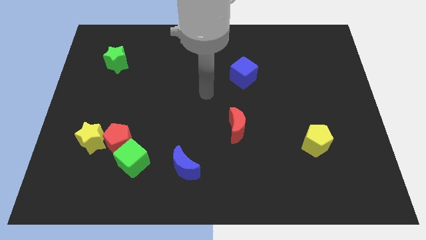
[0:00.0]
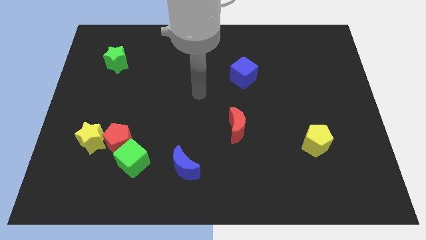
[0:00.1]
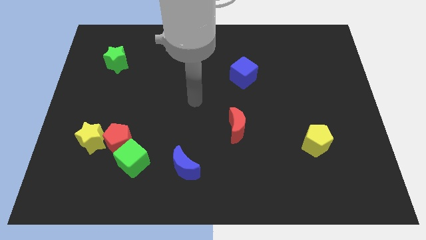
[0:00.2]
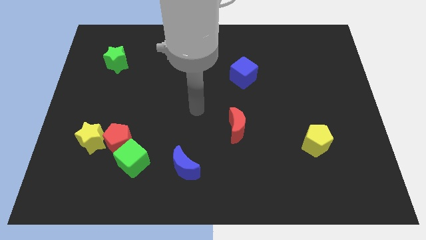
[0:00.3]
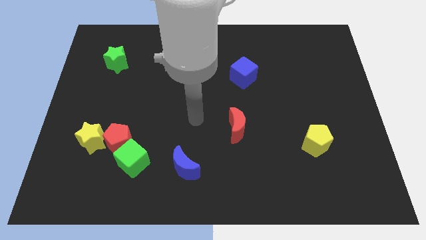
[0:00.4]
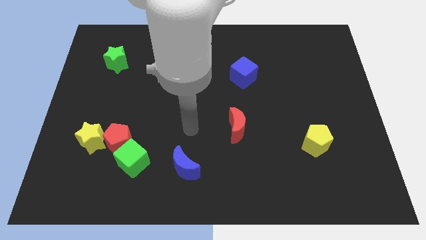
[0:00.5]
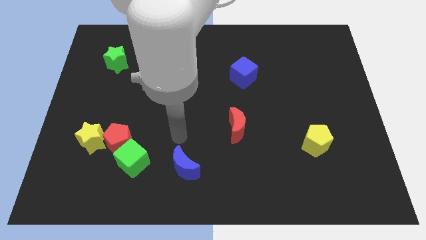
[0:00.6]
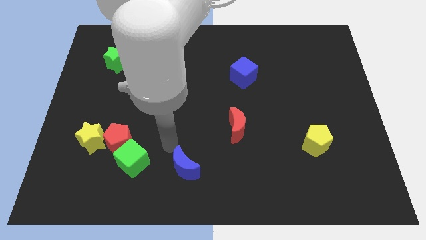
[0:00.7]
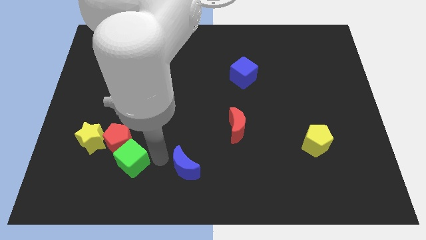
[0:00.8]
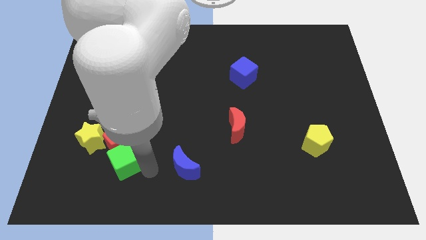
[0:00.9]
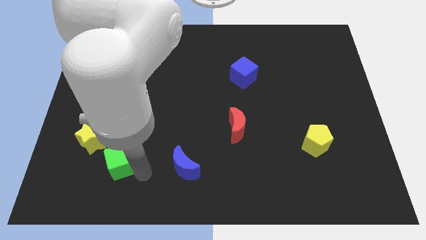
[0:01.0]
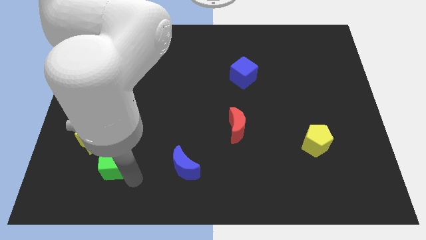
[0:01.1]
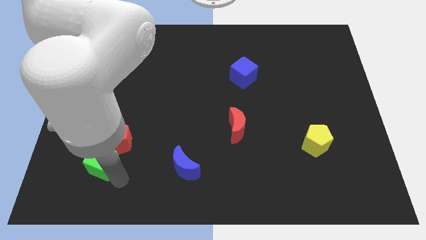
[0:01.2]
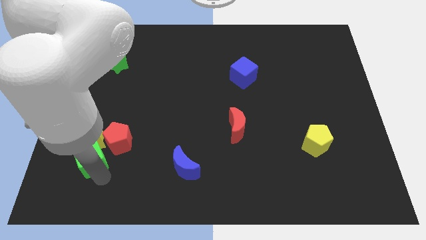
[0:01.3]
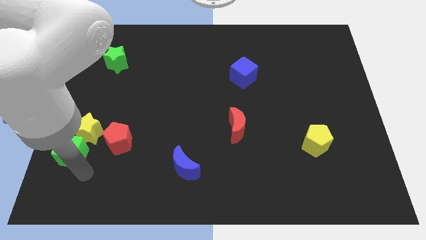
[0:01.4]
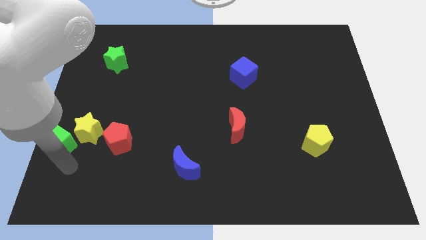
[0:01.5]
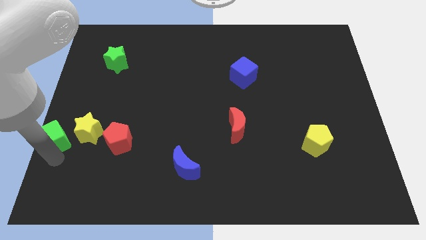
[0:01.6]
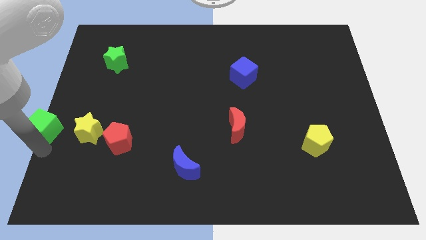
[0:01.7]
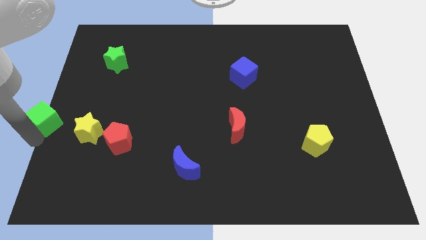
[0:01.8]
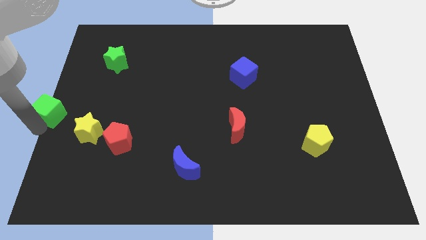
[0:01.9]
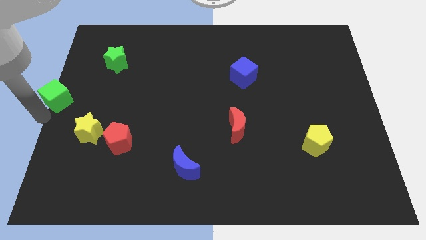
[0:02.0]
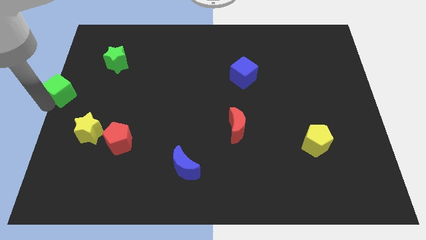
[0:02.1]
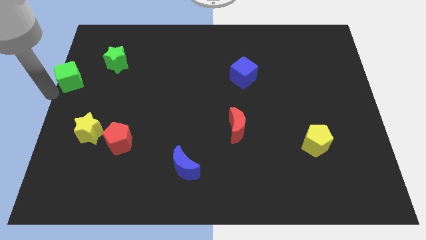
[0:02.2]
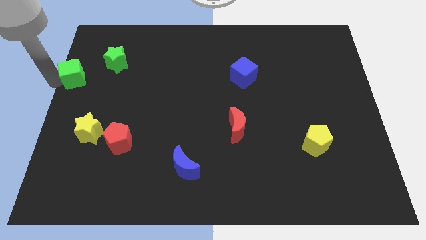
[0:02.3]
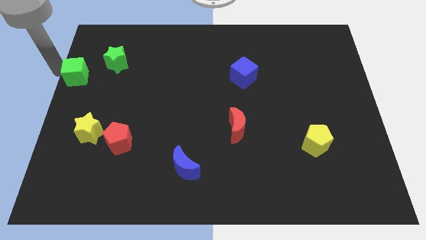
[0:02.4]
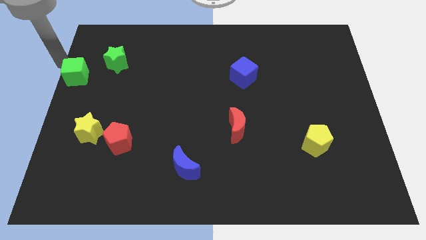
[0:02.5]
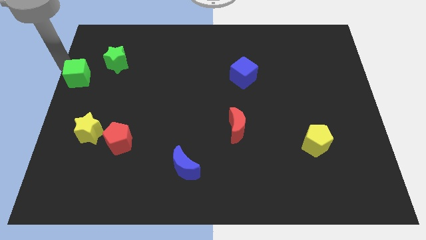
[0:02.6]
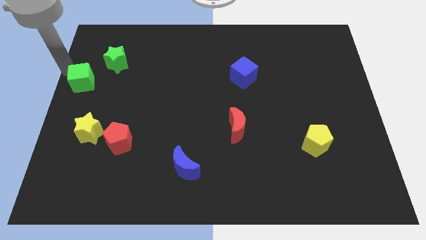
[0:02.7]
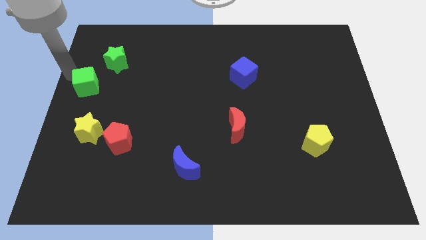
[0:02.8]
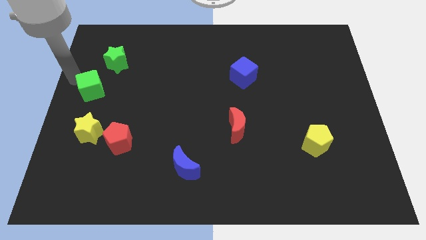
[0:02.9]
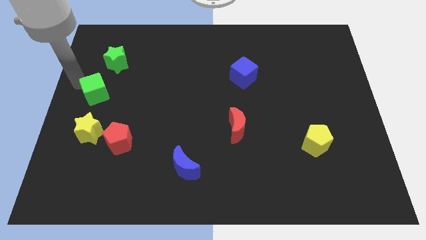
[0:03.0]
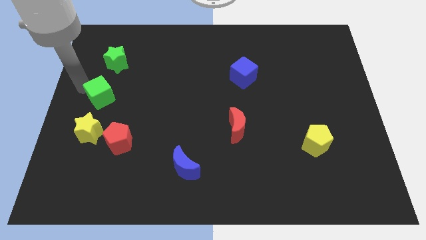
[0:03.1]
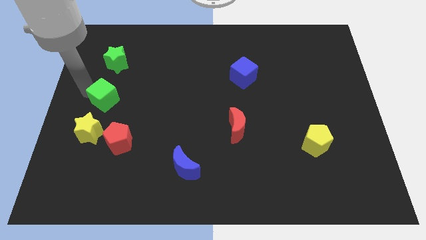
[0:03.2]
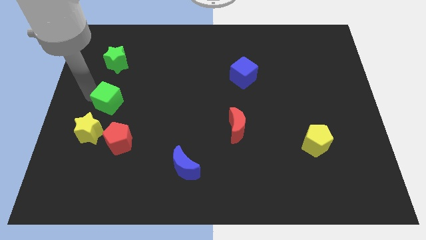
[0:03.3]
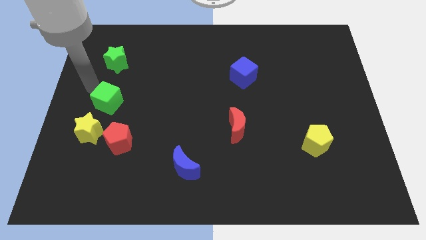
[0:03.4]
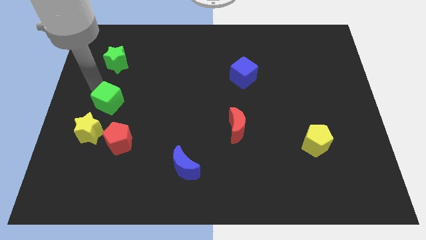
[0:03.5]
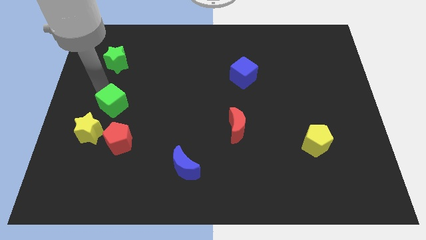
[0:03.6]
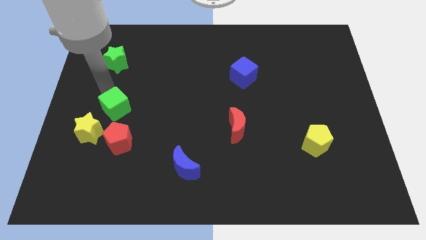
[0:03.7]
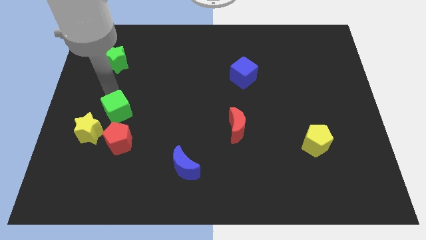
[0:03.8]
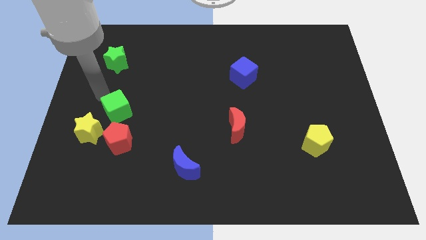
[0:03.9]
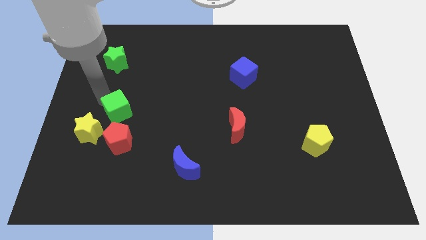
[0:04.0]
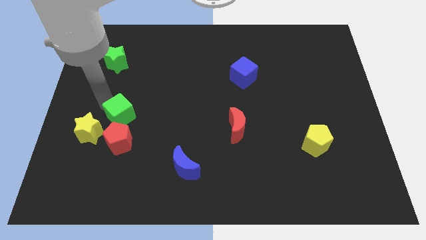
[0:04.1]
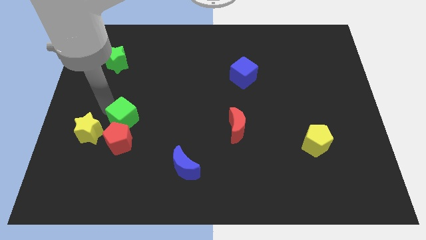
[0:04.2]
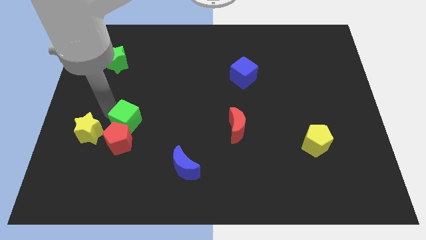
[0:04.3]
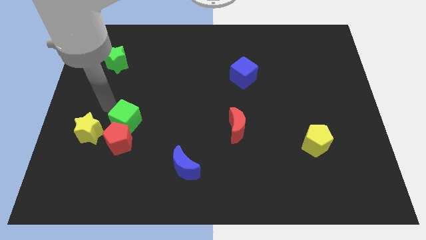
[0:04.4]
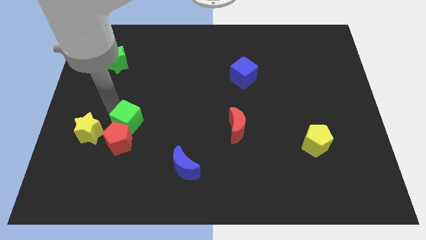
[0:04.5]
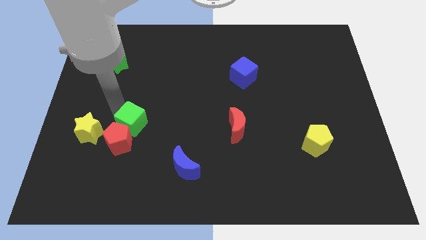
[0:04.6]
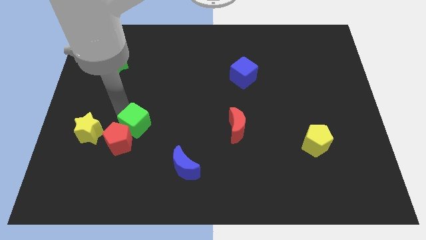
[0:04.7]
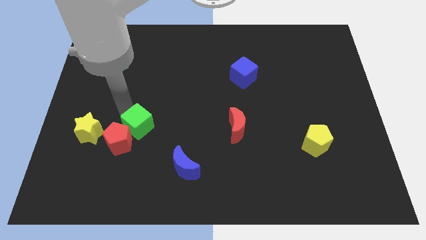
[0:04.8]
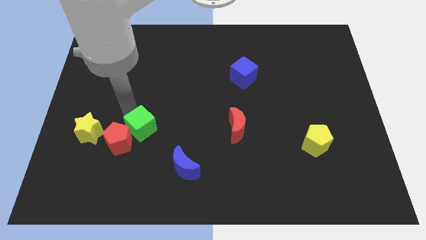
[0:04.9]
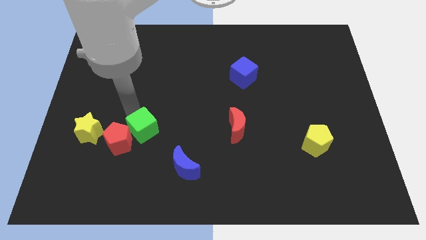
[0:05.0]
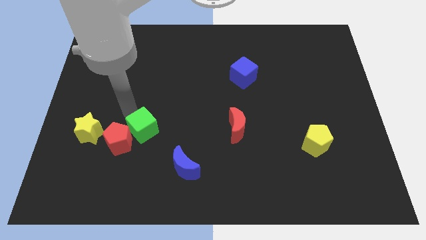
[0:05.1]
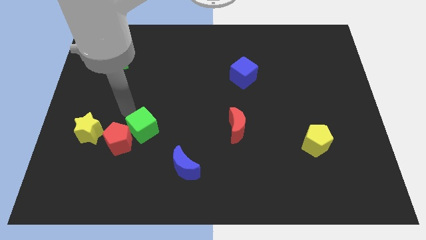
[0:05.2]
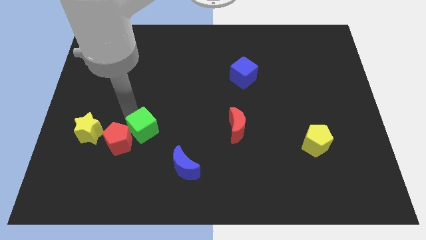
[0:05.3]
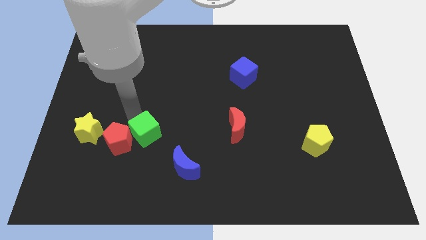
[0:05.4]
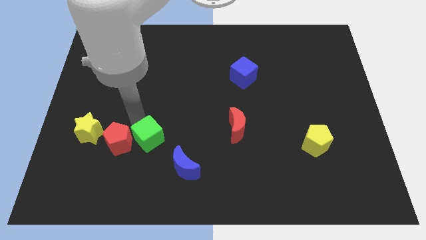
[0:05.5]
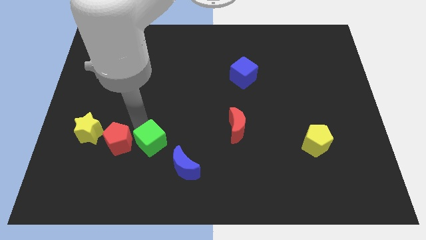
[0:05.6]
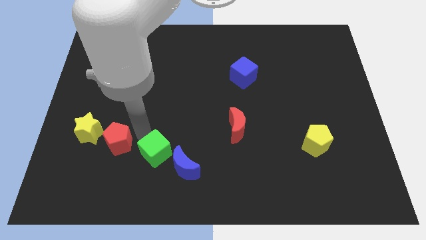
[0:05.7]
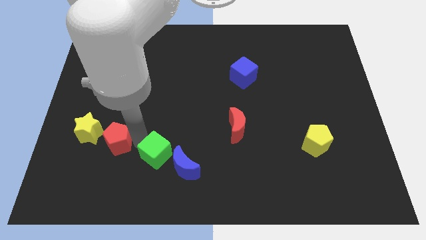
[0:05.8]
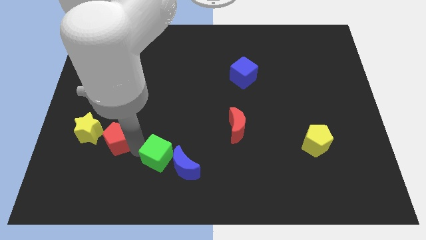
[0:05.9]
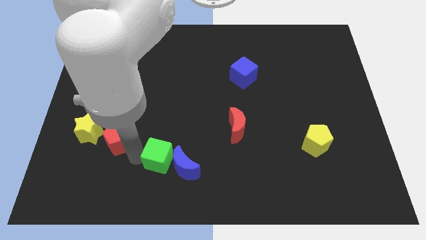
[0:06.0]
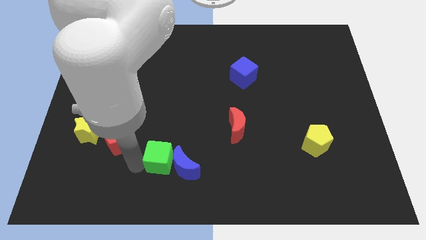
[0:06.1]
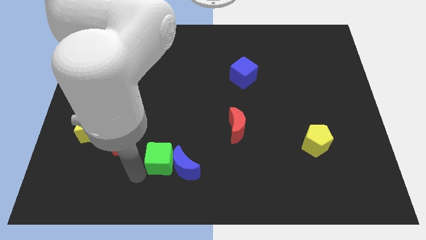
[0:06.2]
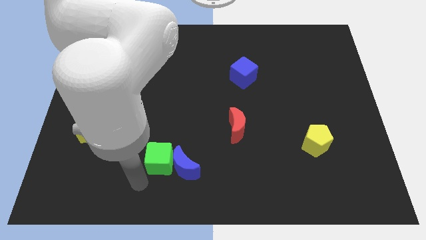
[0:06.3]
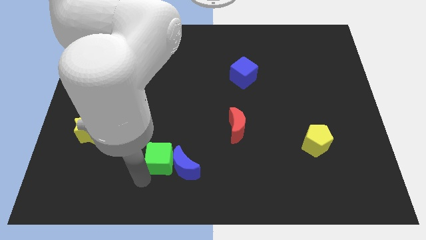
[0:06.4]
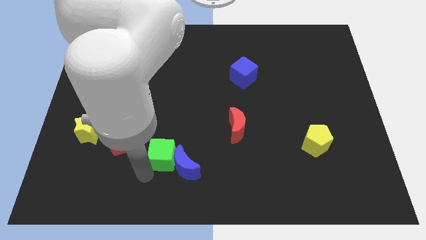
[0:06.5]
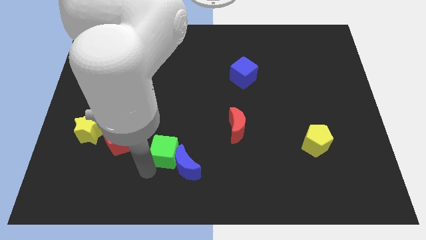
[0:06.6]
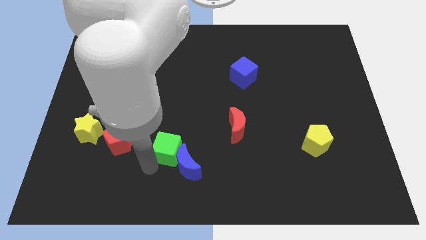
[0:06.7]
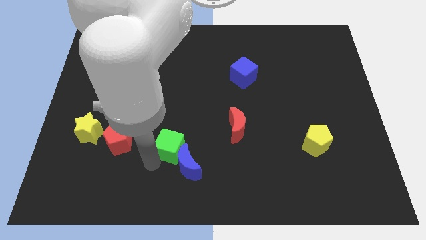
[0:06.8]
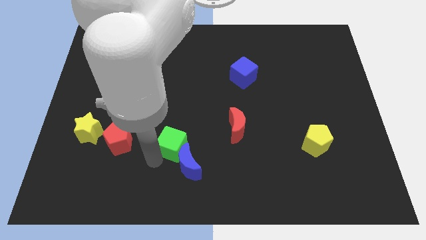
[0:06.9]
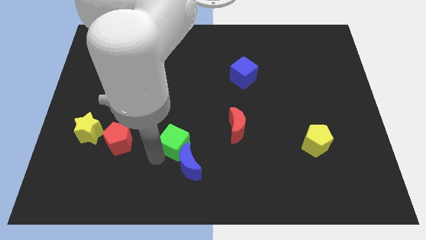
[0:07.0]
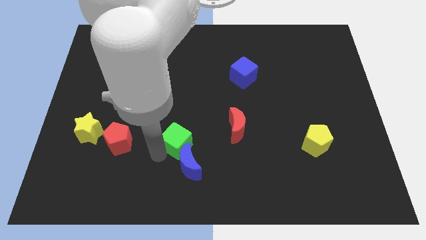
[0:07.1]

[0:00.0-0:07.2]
put the green cube to the left of the red moon
